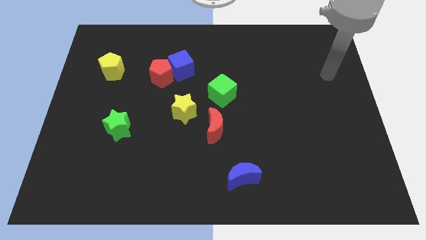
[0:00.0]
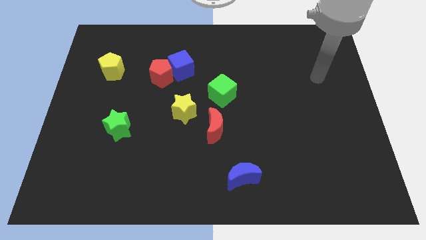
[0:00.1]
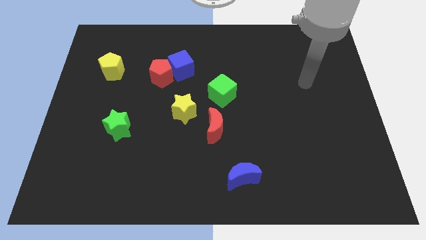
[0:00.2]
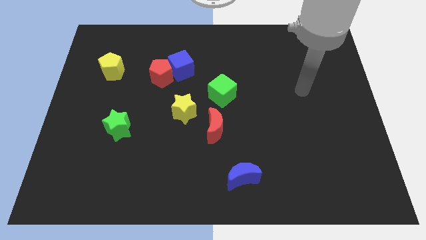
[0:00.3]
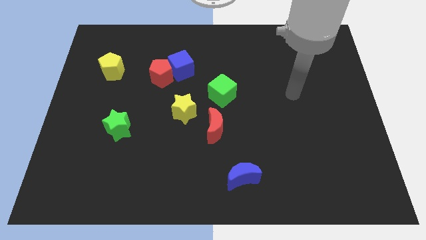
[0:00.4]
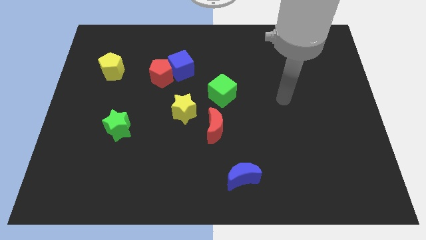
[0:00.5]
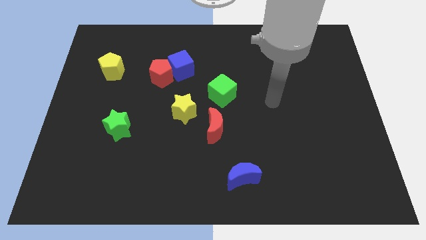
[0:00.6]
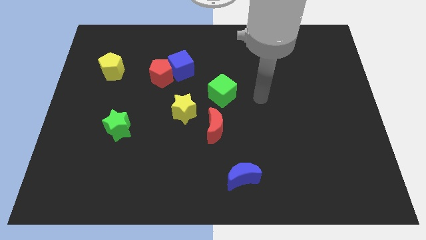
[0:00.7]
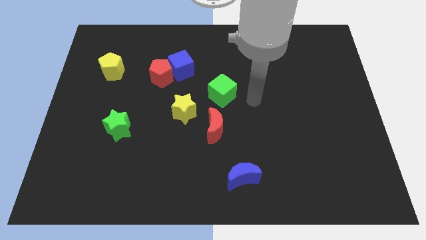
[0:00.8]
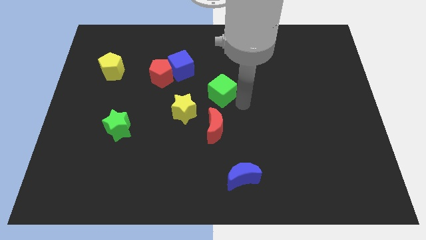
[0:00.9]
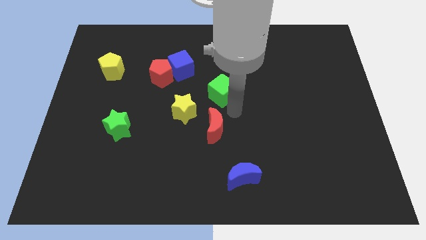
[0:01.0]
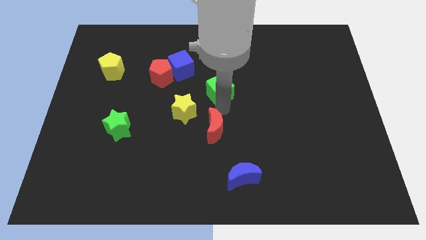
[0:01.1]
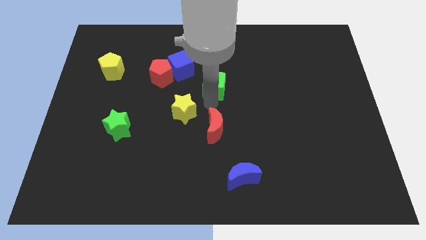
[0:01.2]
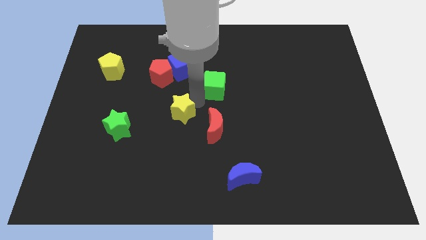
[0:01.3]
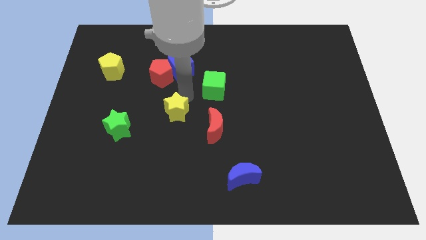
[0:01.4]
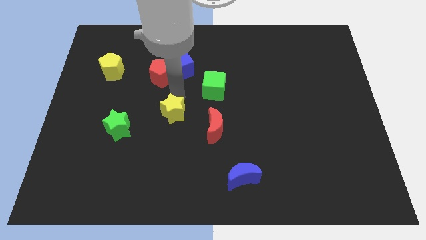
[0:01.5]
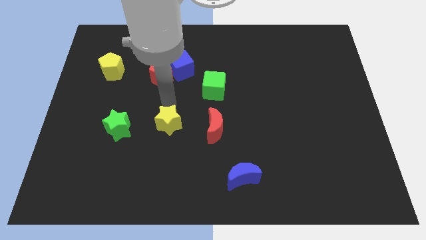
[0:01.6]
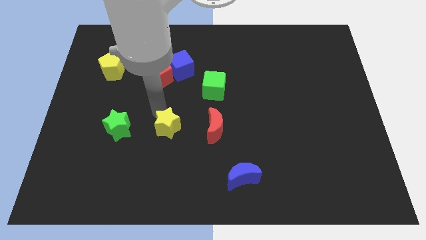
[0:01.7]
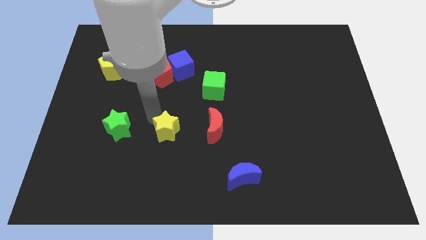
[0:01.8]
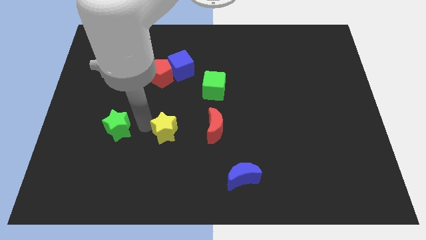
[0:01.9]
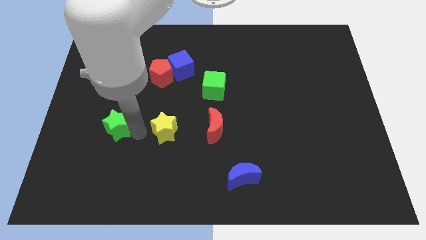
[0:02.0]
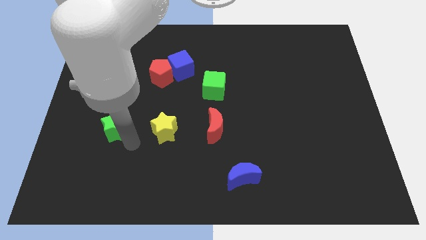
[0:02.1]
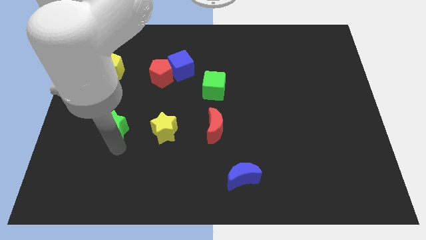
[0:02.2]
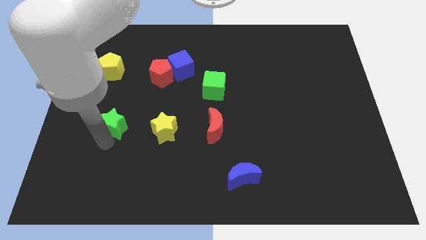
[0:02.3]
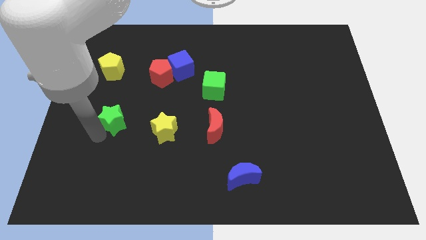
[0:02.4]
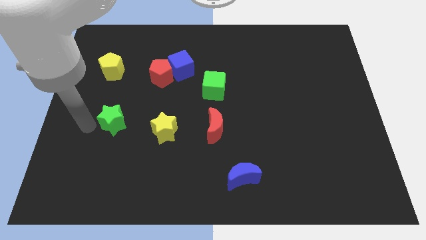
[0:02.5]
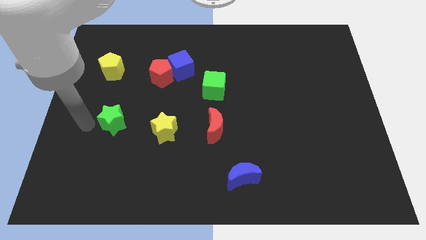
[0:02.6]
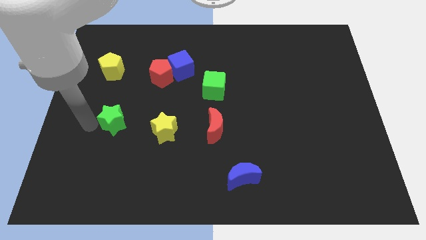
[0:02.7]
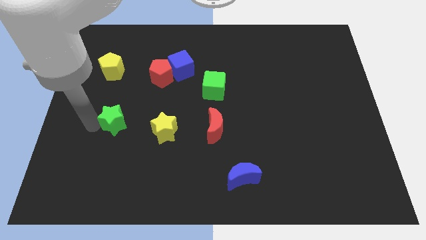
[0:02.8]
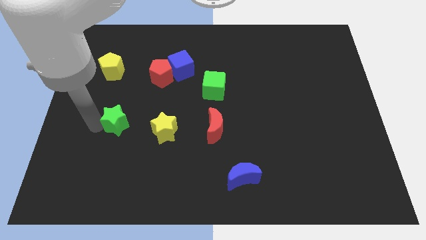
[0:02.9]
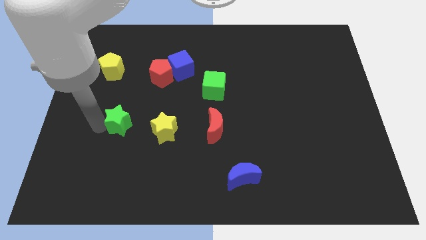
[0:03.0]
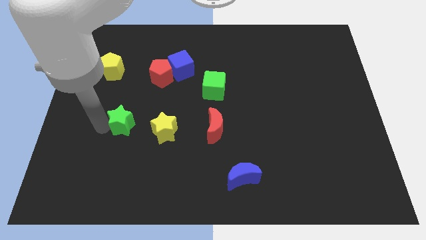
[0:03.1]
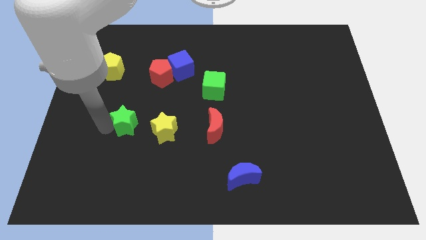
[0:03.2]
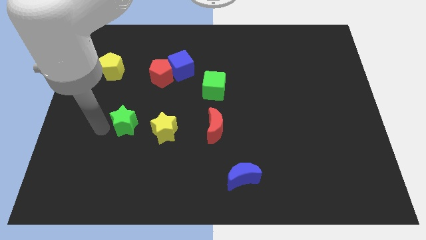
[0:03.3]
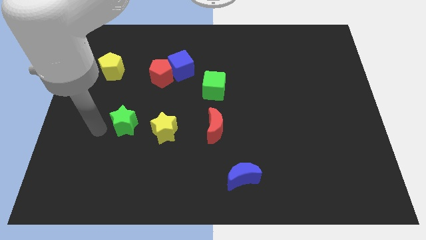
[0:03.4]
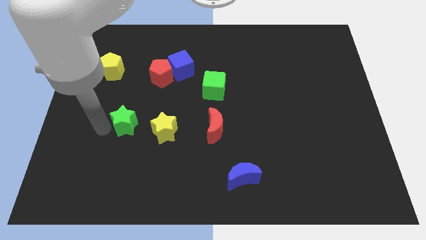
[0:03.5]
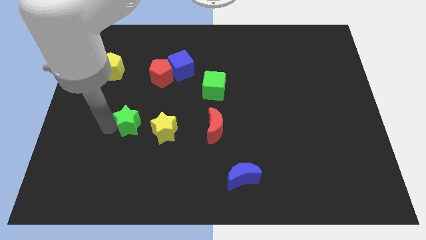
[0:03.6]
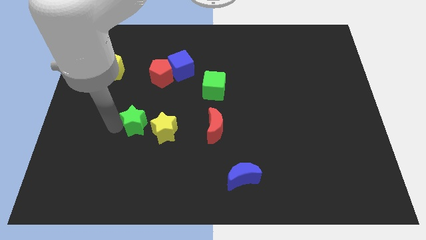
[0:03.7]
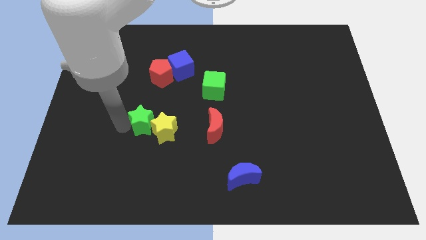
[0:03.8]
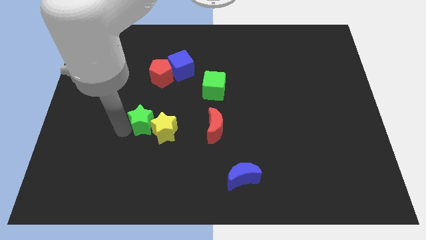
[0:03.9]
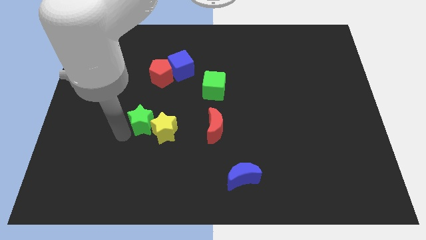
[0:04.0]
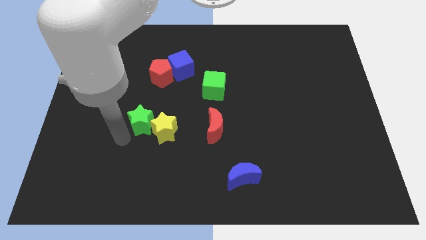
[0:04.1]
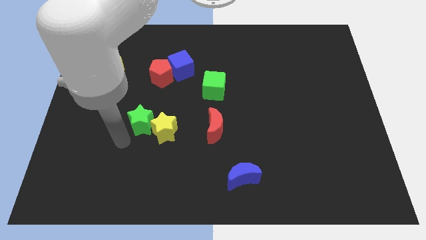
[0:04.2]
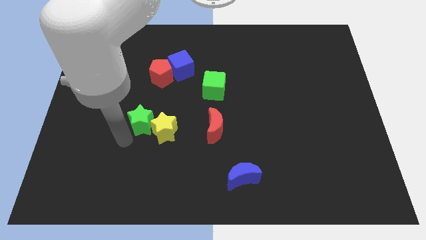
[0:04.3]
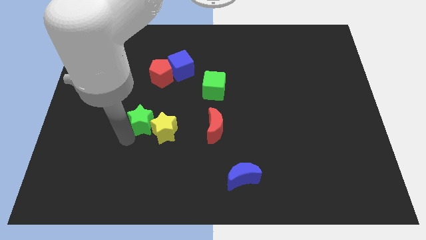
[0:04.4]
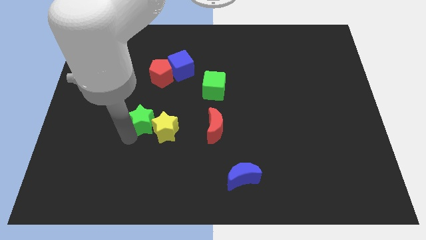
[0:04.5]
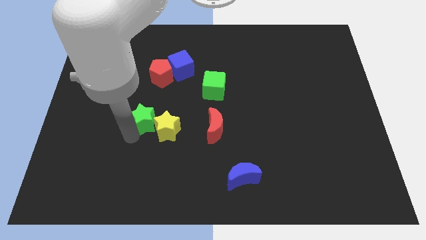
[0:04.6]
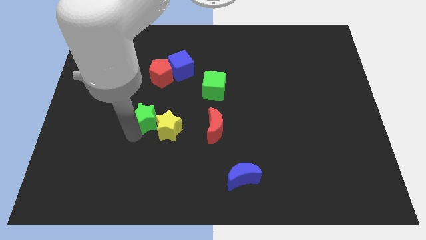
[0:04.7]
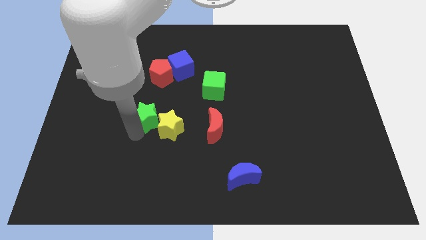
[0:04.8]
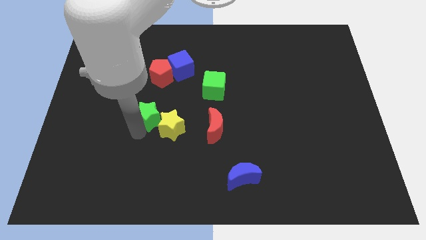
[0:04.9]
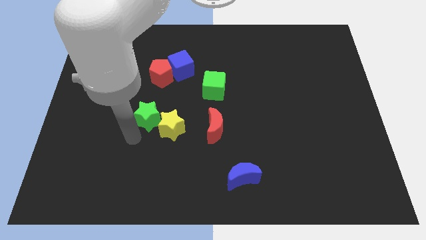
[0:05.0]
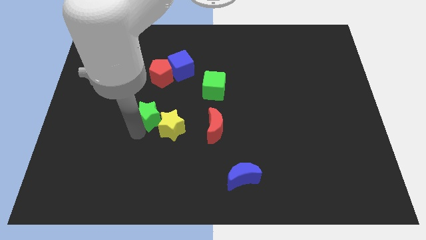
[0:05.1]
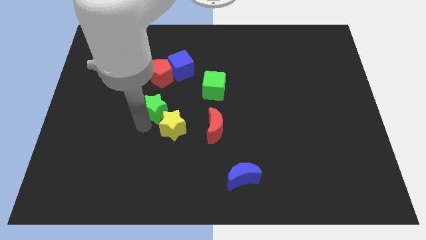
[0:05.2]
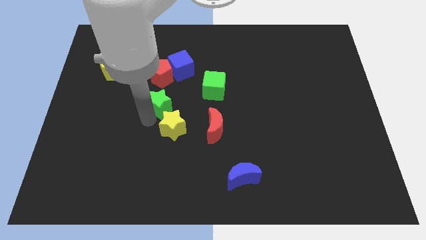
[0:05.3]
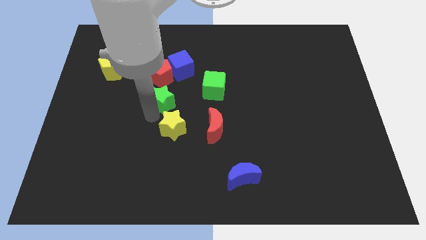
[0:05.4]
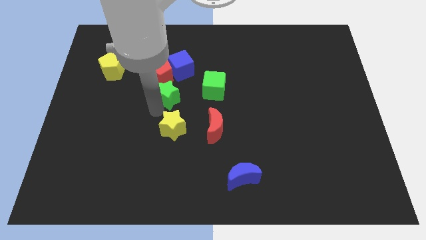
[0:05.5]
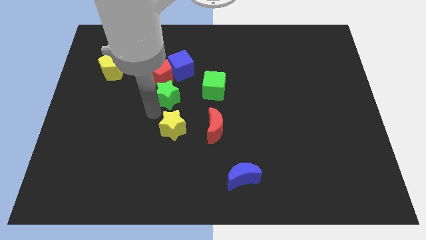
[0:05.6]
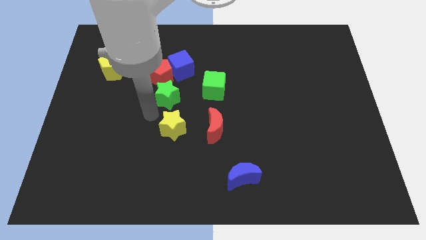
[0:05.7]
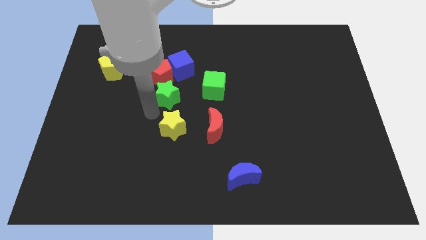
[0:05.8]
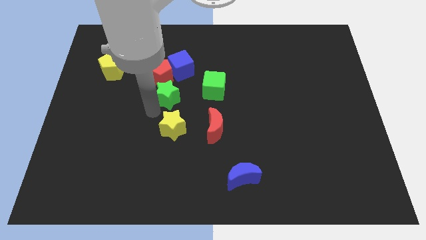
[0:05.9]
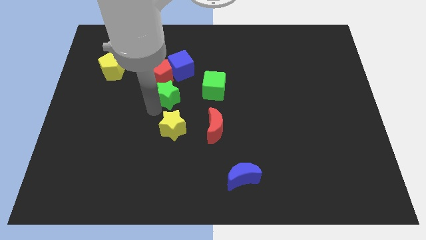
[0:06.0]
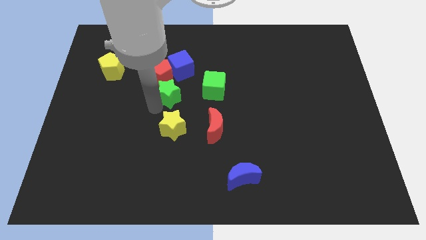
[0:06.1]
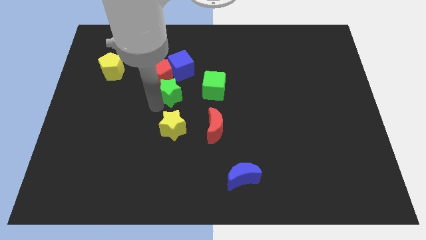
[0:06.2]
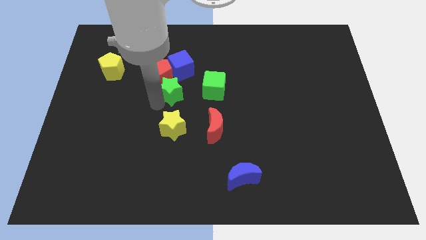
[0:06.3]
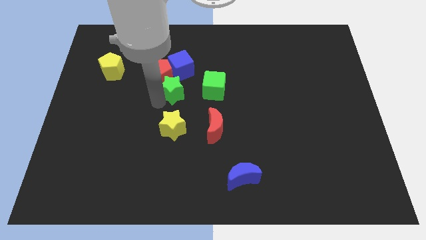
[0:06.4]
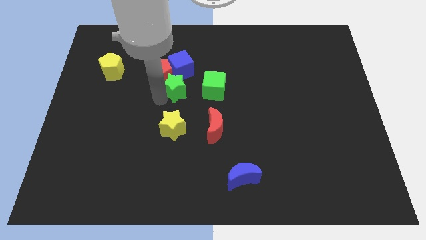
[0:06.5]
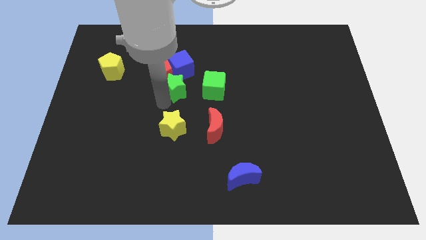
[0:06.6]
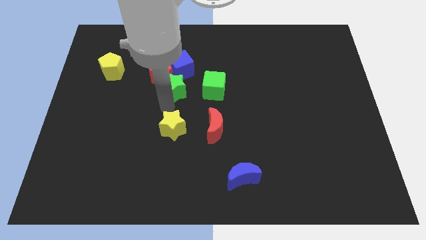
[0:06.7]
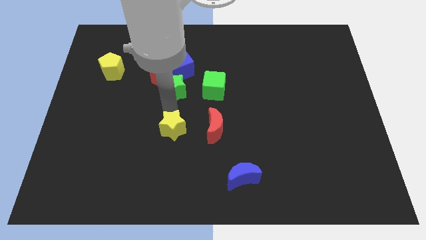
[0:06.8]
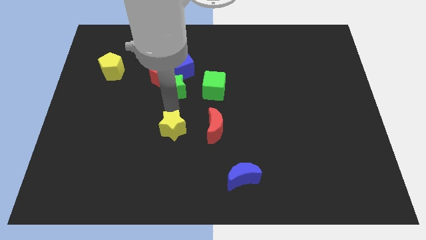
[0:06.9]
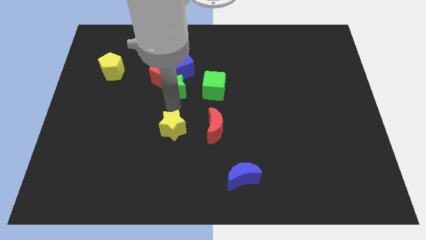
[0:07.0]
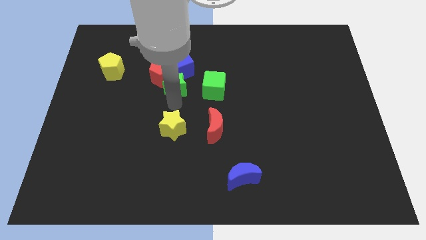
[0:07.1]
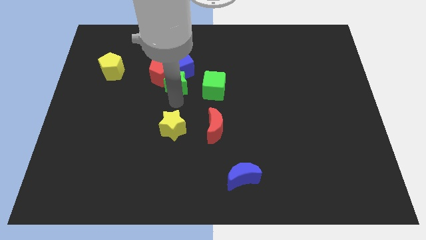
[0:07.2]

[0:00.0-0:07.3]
slide the green star towards the blue cube
